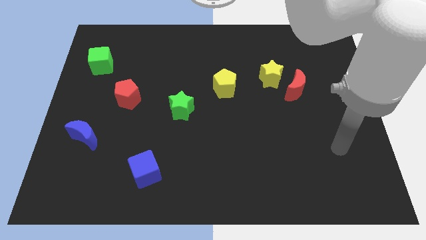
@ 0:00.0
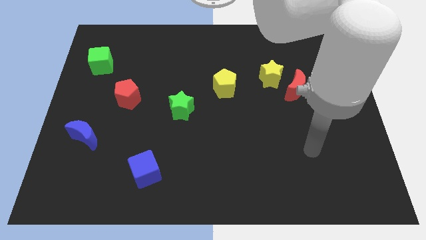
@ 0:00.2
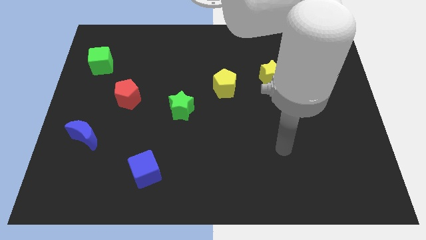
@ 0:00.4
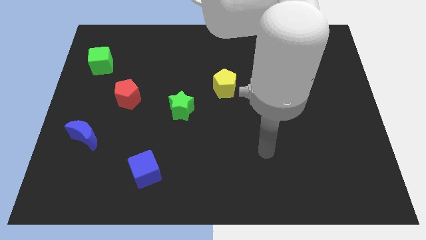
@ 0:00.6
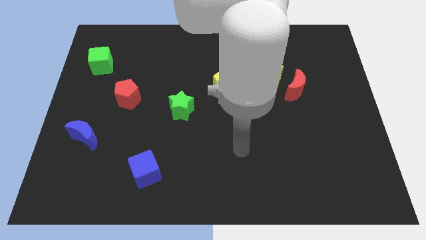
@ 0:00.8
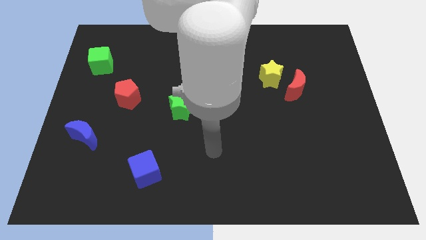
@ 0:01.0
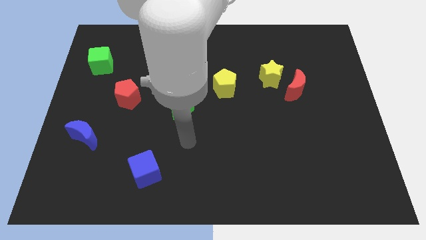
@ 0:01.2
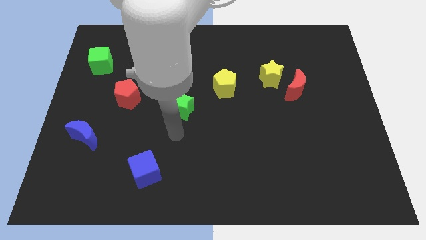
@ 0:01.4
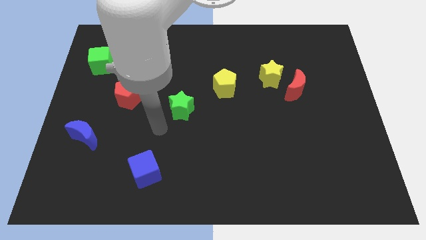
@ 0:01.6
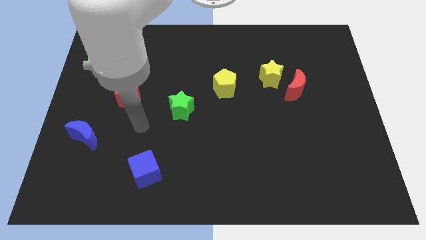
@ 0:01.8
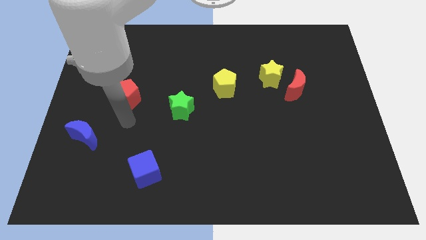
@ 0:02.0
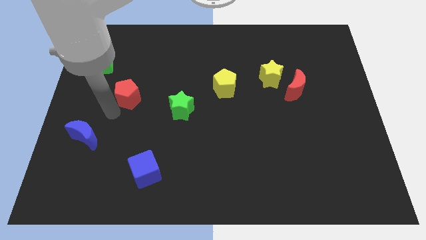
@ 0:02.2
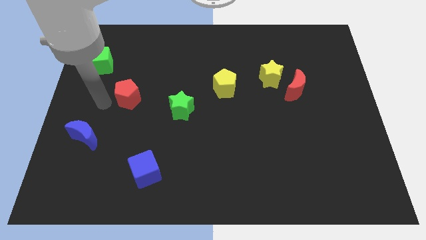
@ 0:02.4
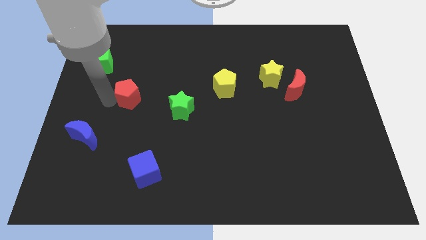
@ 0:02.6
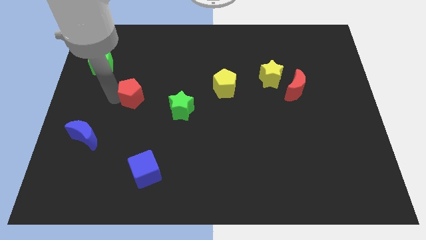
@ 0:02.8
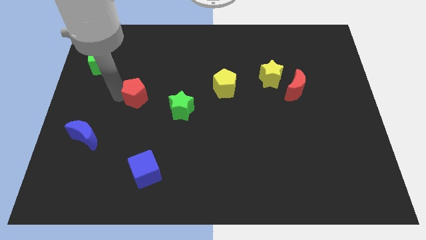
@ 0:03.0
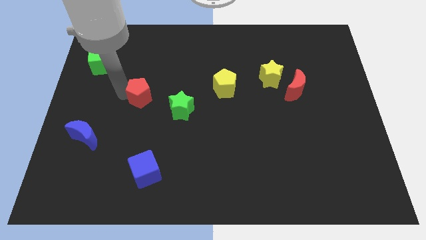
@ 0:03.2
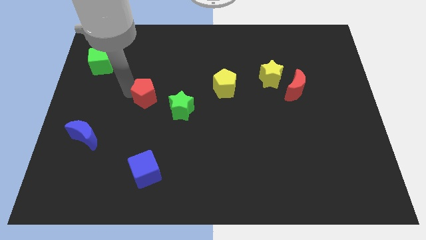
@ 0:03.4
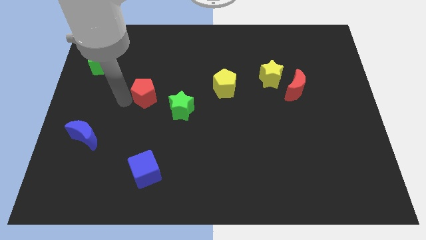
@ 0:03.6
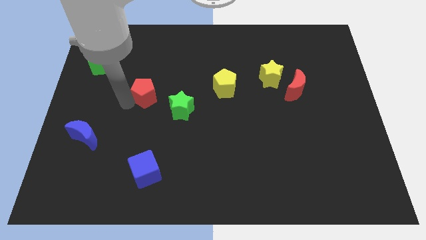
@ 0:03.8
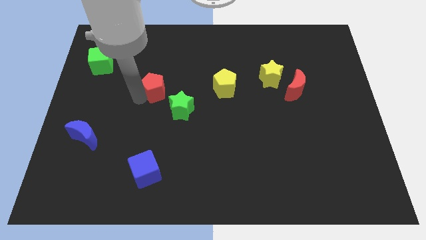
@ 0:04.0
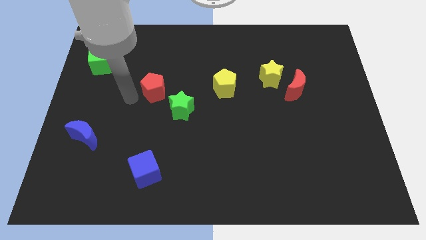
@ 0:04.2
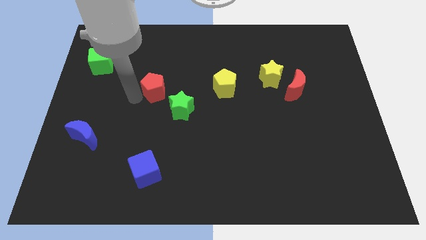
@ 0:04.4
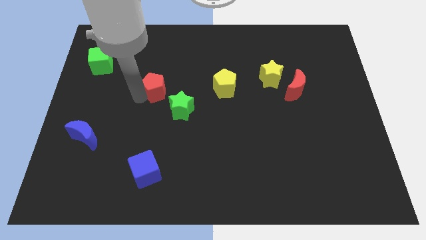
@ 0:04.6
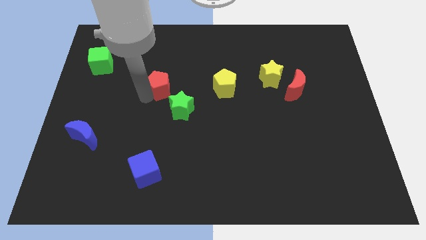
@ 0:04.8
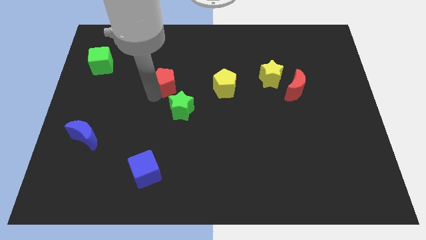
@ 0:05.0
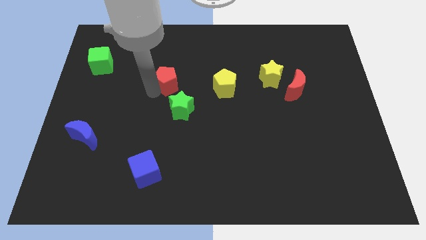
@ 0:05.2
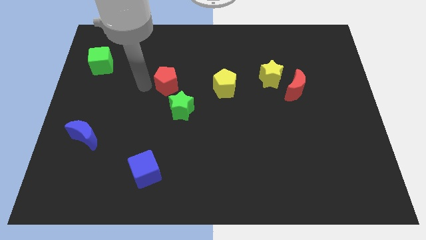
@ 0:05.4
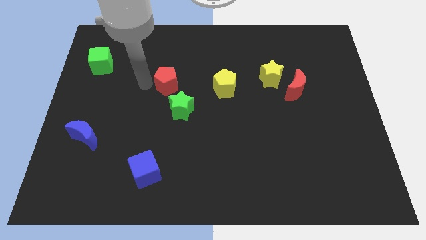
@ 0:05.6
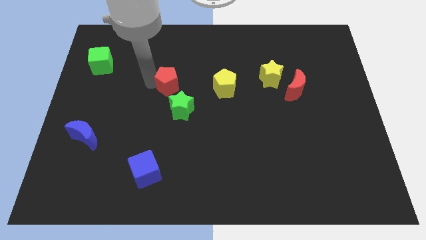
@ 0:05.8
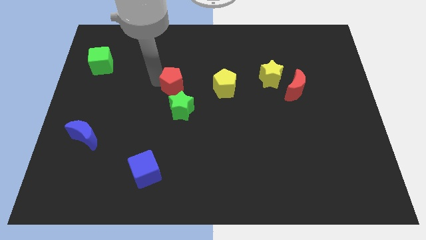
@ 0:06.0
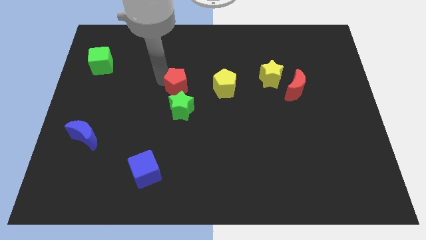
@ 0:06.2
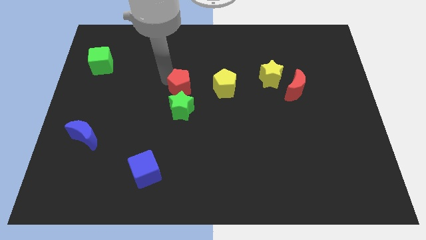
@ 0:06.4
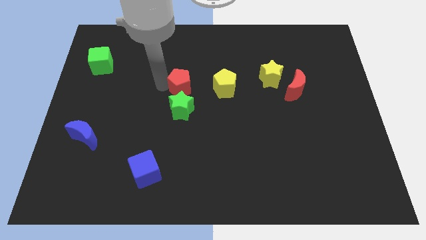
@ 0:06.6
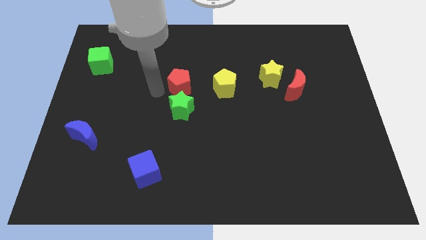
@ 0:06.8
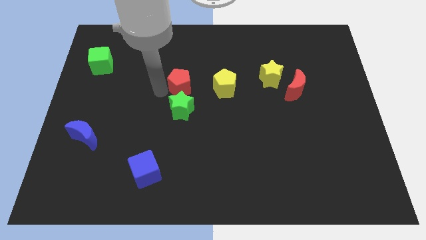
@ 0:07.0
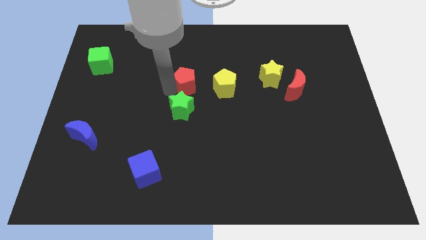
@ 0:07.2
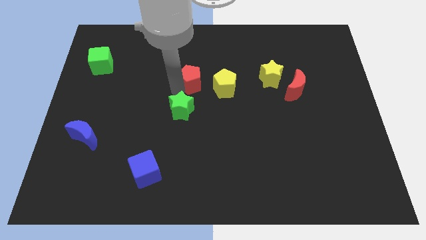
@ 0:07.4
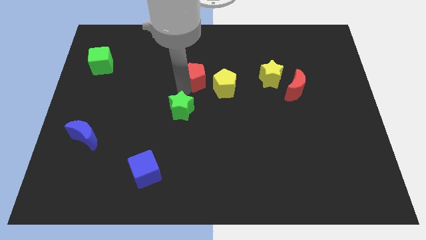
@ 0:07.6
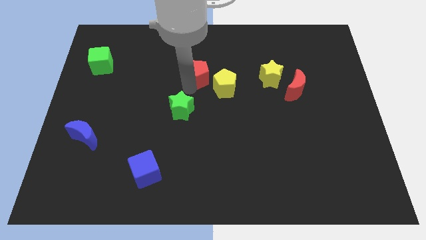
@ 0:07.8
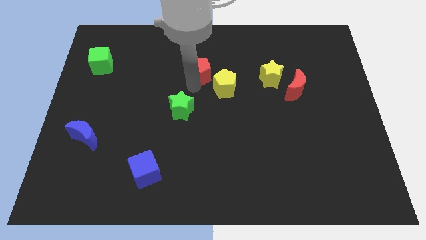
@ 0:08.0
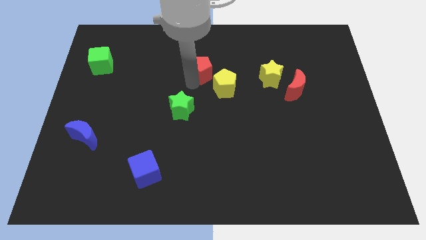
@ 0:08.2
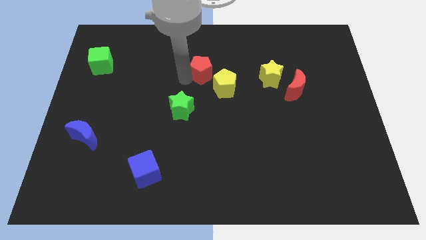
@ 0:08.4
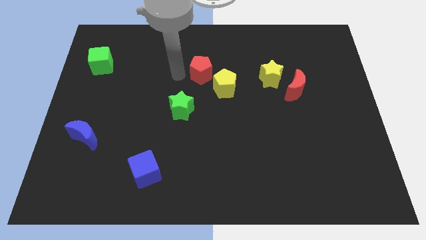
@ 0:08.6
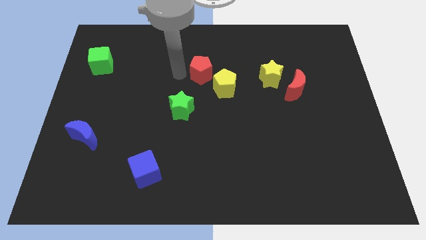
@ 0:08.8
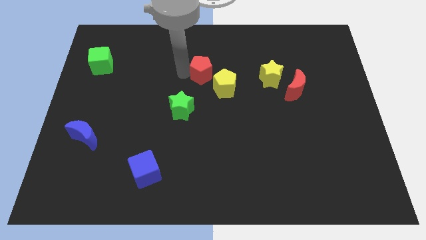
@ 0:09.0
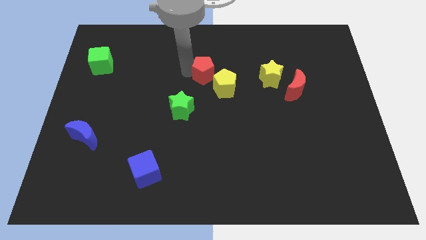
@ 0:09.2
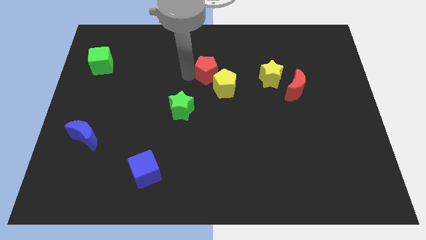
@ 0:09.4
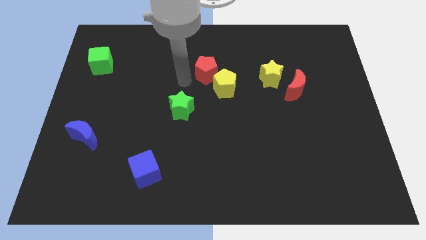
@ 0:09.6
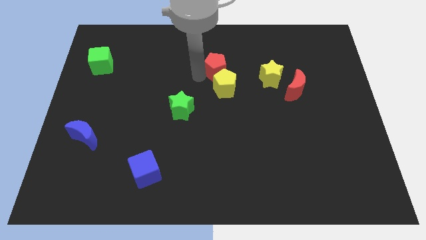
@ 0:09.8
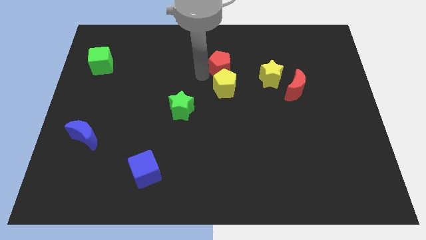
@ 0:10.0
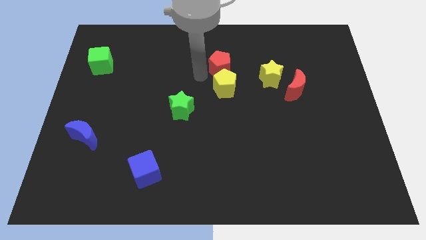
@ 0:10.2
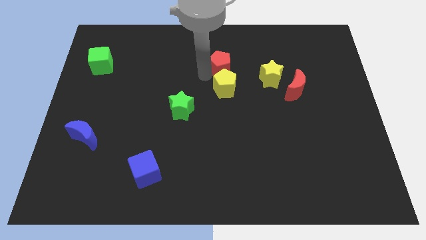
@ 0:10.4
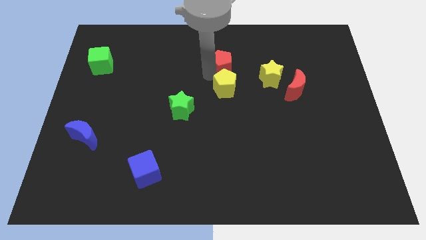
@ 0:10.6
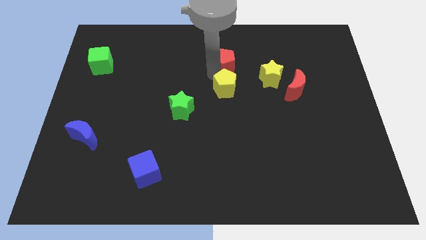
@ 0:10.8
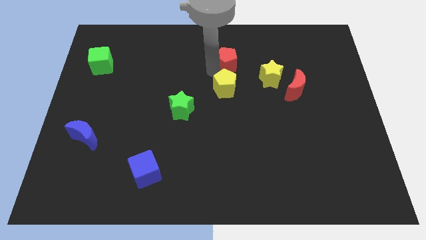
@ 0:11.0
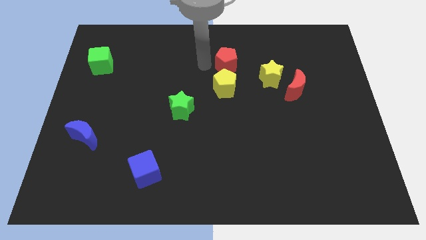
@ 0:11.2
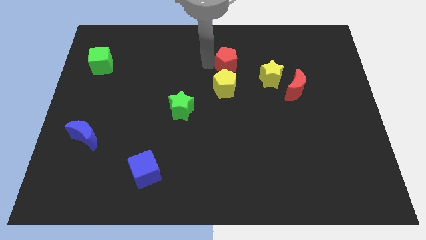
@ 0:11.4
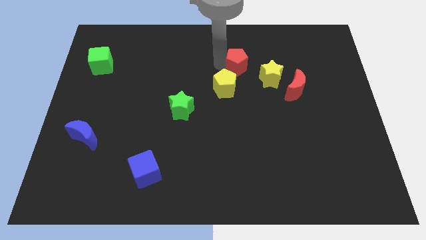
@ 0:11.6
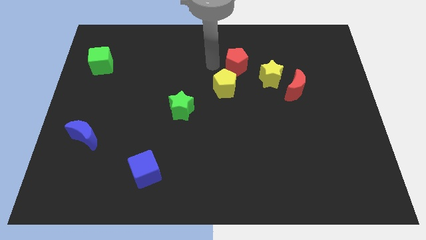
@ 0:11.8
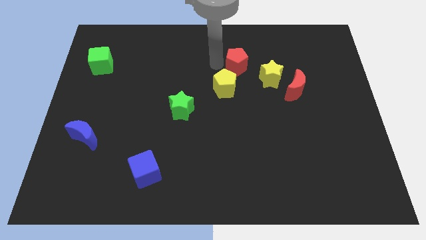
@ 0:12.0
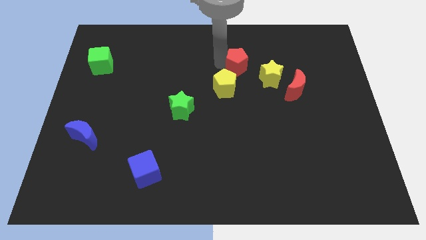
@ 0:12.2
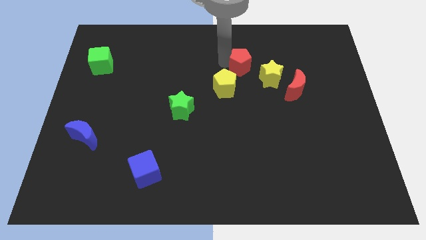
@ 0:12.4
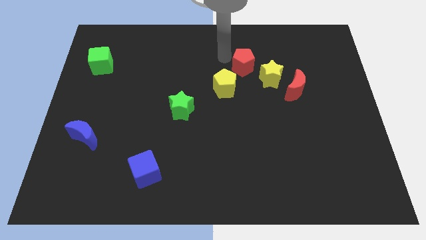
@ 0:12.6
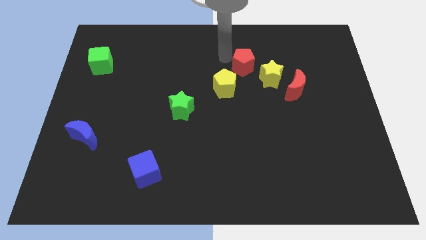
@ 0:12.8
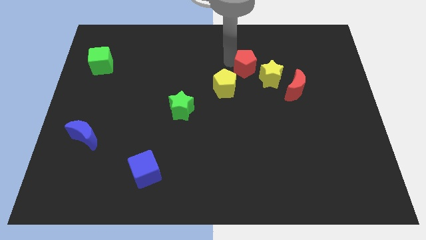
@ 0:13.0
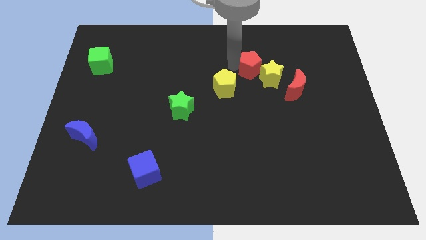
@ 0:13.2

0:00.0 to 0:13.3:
slide the red pentagon to the yellow star

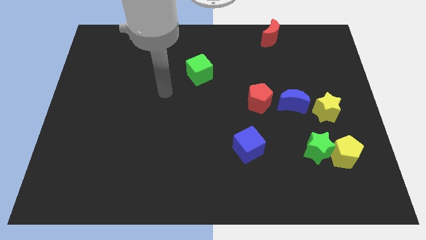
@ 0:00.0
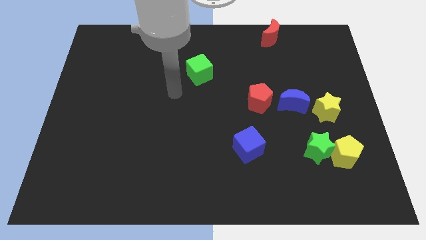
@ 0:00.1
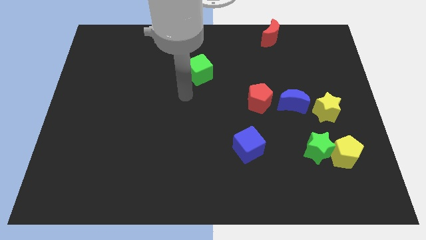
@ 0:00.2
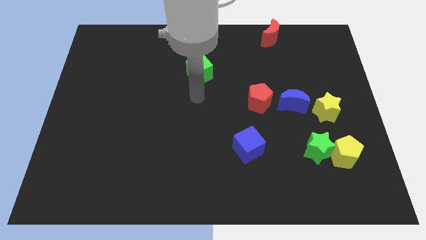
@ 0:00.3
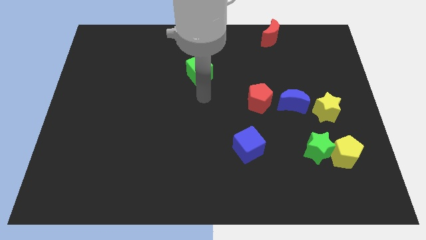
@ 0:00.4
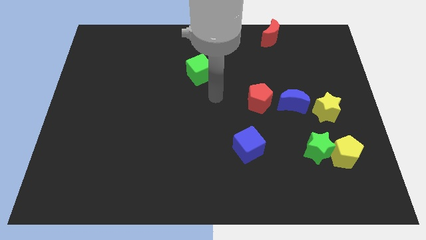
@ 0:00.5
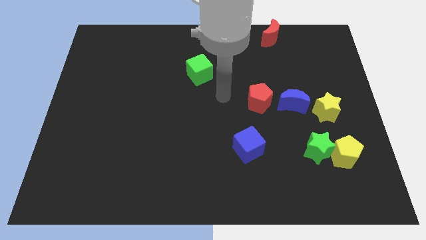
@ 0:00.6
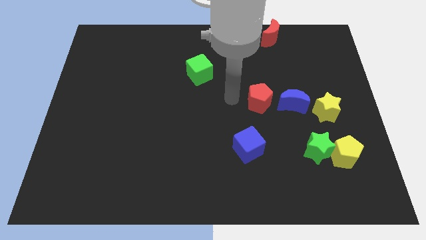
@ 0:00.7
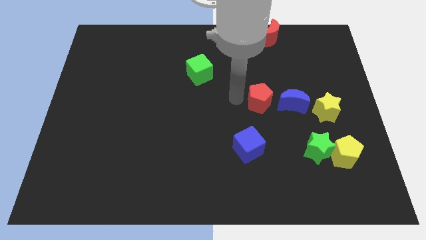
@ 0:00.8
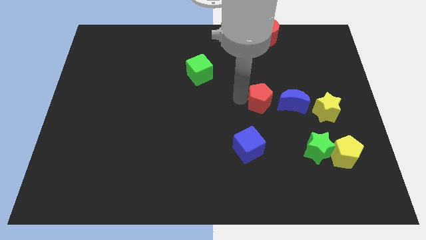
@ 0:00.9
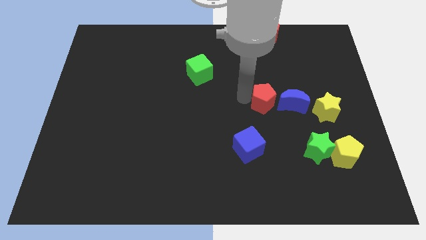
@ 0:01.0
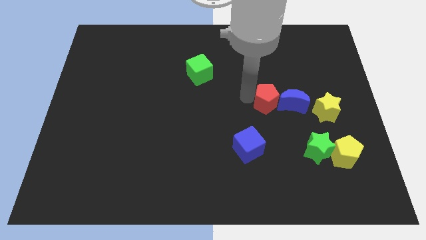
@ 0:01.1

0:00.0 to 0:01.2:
push the red pentagon towards the blue moon

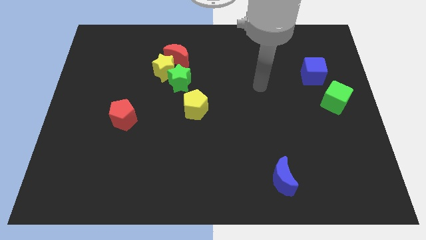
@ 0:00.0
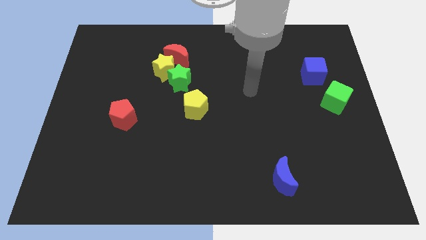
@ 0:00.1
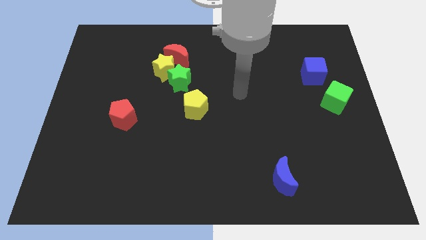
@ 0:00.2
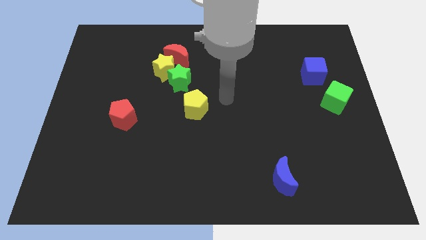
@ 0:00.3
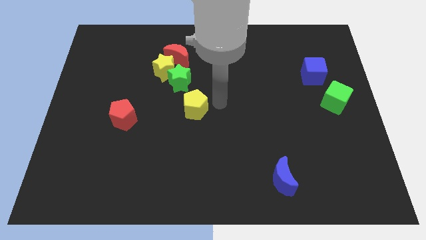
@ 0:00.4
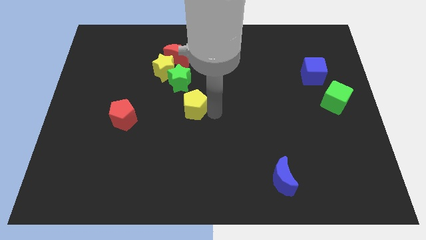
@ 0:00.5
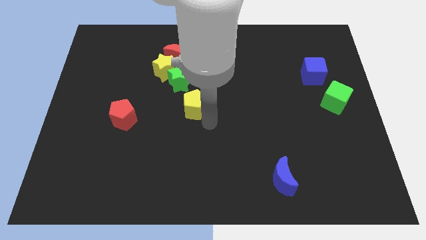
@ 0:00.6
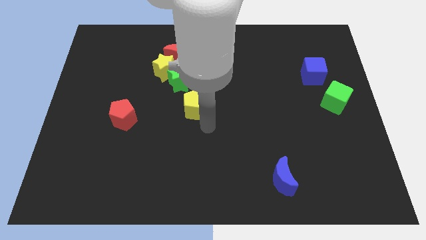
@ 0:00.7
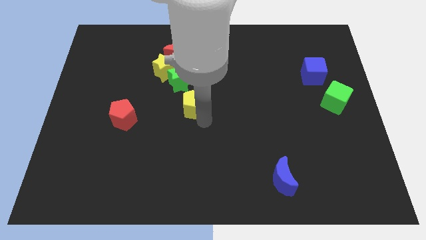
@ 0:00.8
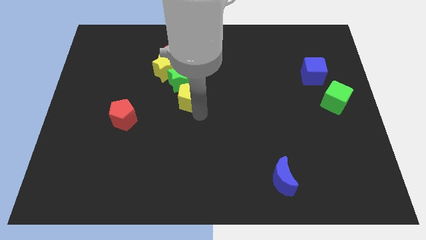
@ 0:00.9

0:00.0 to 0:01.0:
push the yellow pentagon to the green star
